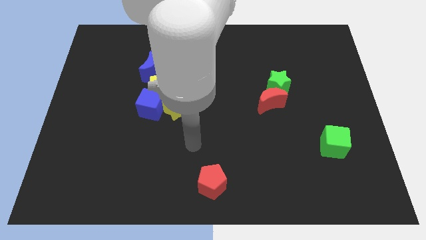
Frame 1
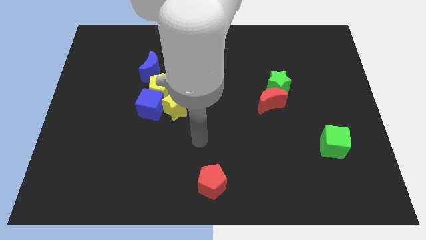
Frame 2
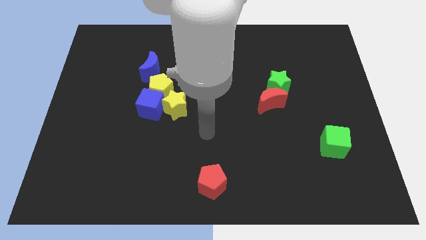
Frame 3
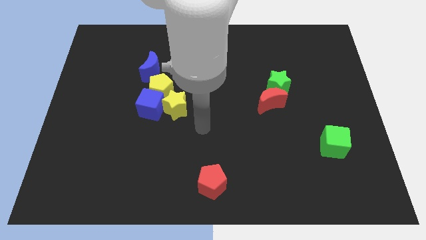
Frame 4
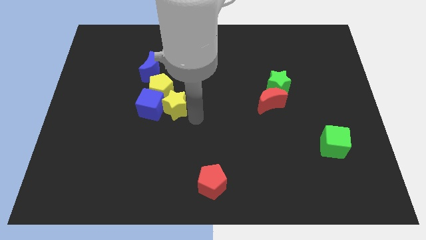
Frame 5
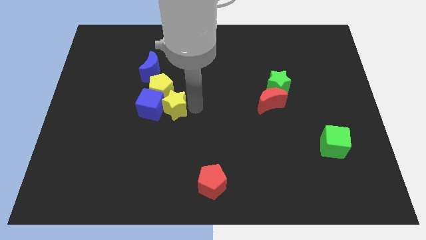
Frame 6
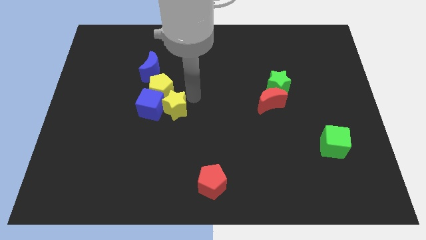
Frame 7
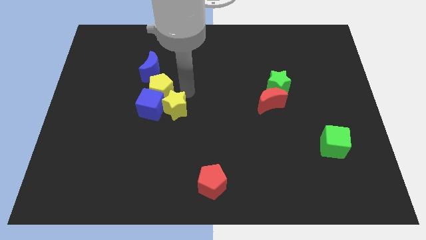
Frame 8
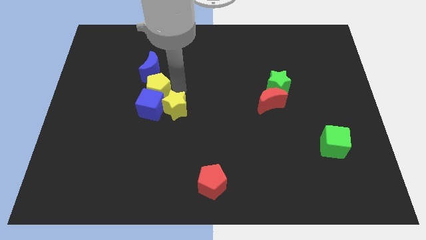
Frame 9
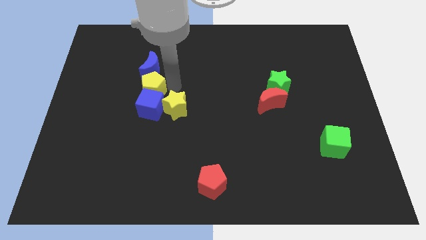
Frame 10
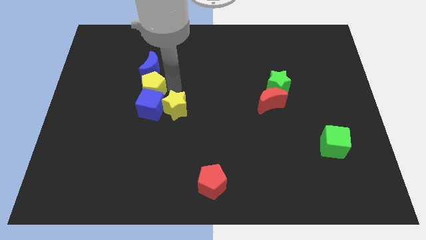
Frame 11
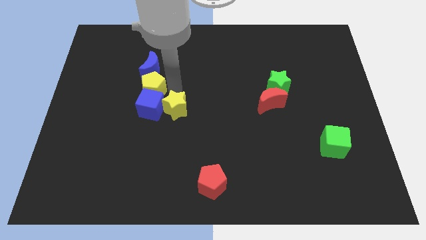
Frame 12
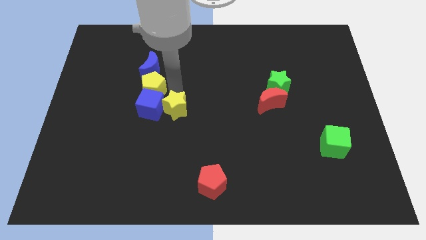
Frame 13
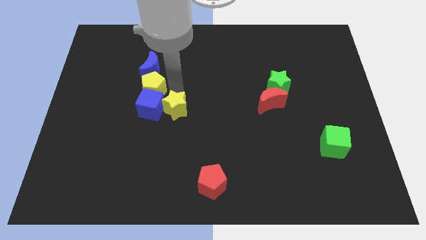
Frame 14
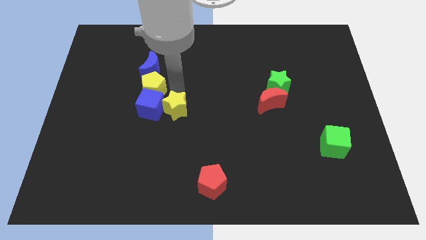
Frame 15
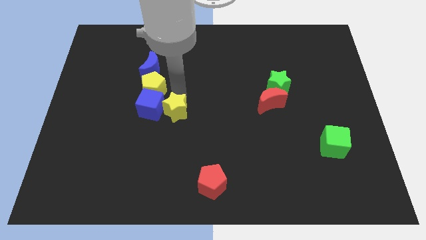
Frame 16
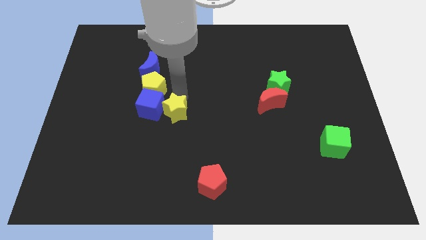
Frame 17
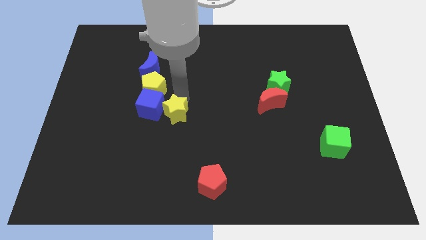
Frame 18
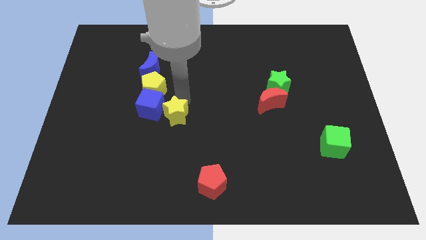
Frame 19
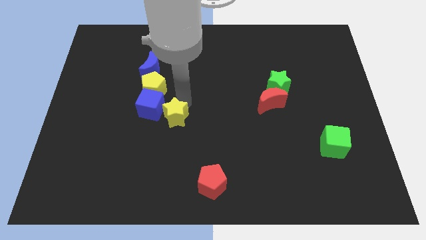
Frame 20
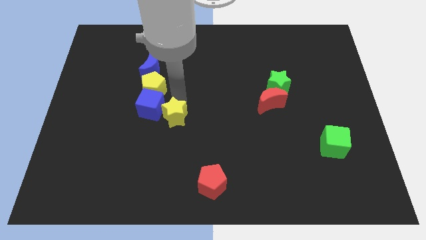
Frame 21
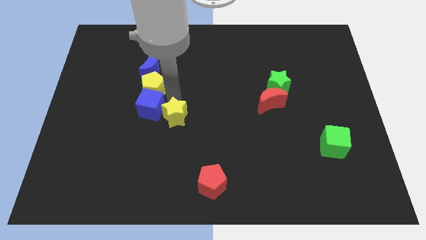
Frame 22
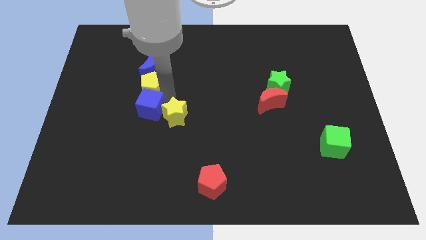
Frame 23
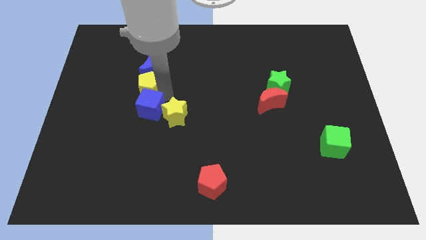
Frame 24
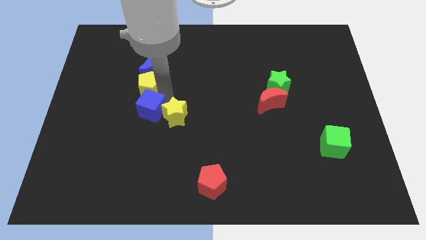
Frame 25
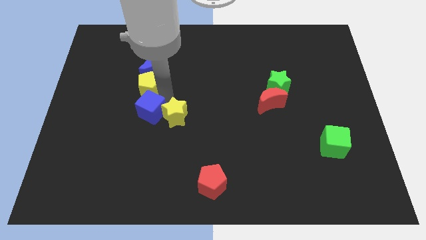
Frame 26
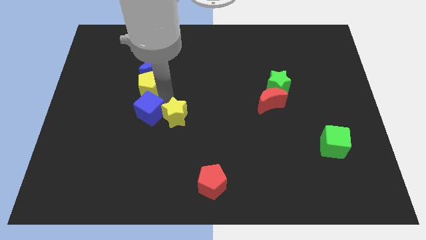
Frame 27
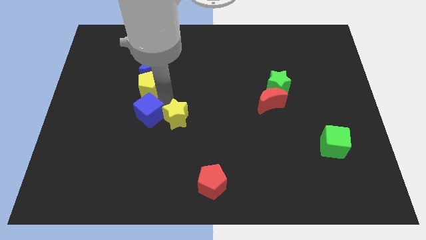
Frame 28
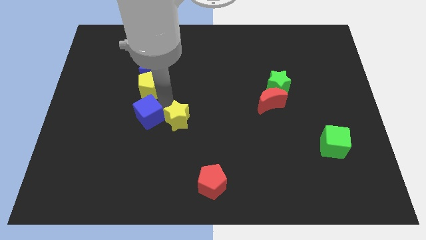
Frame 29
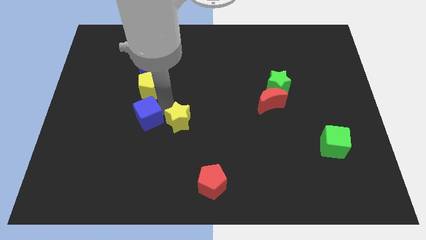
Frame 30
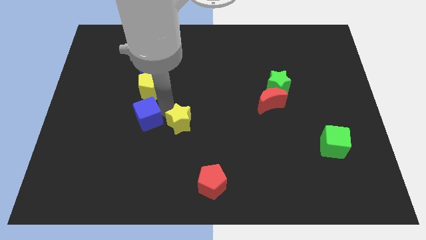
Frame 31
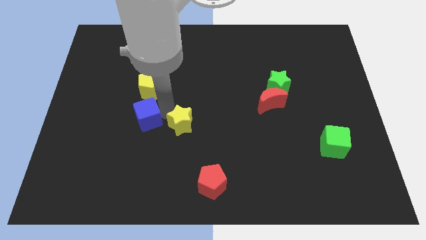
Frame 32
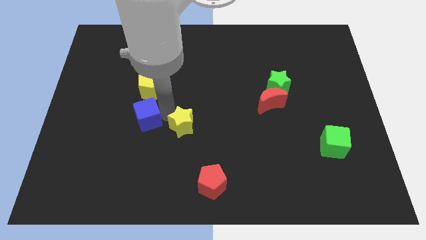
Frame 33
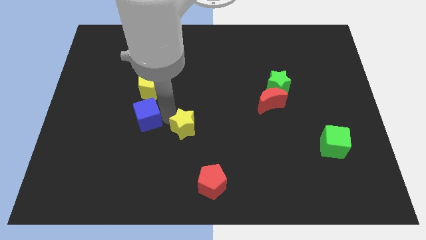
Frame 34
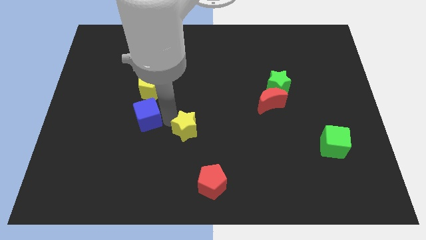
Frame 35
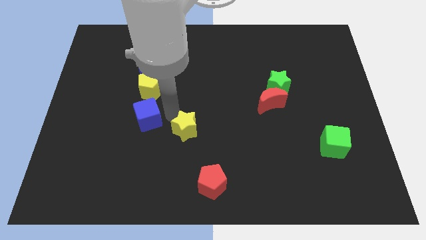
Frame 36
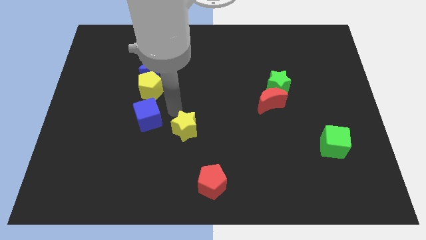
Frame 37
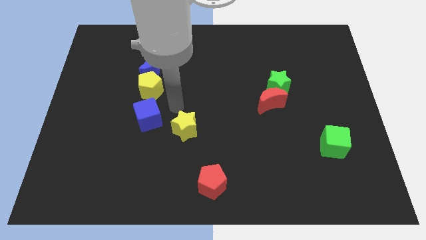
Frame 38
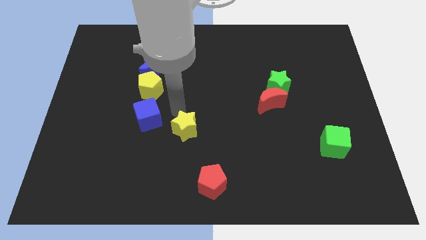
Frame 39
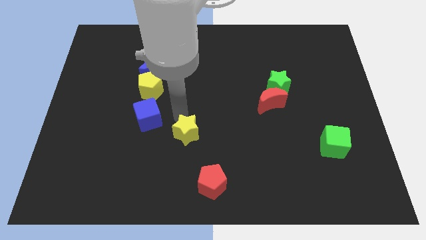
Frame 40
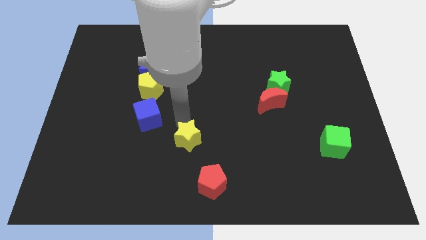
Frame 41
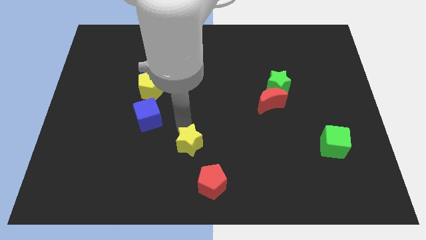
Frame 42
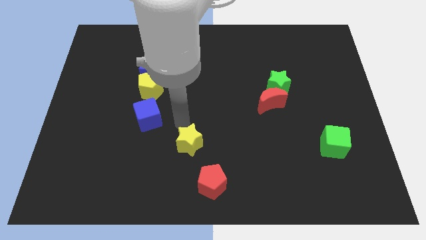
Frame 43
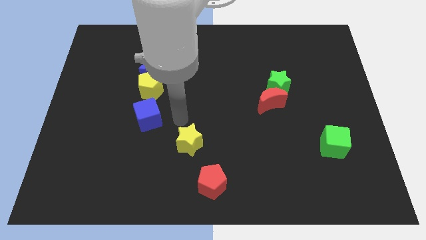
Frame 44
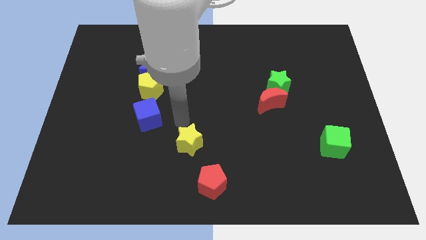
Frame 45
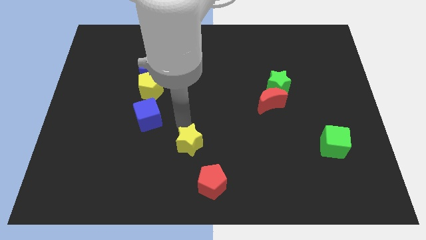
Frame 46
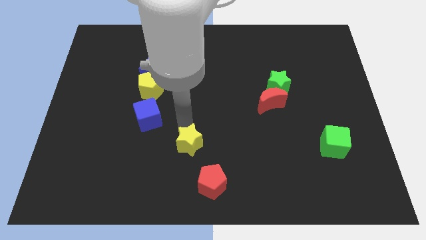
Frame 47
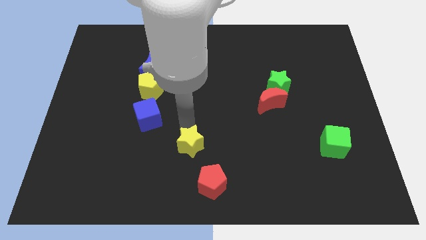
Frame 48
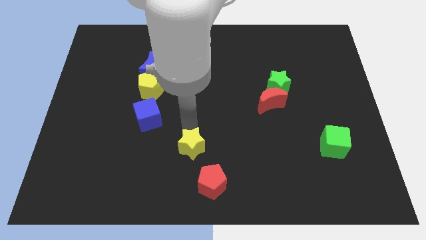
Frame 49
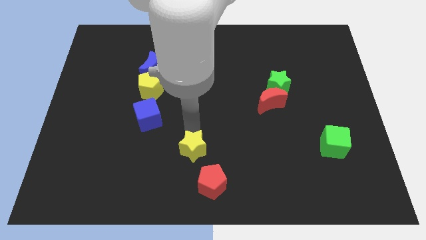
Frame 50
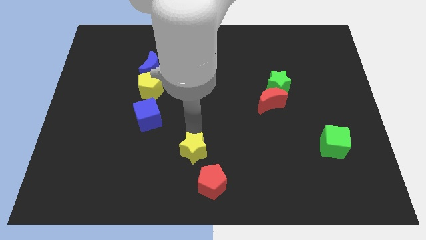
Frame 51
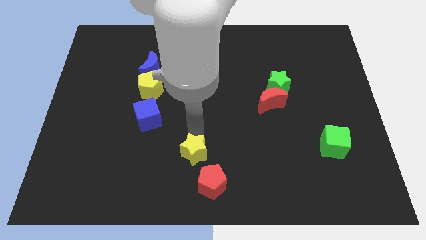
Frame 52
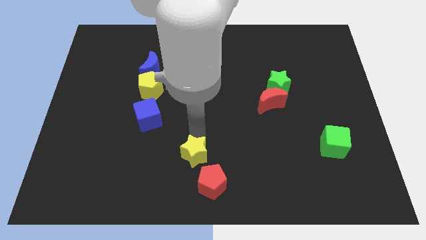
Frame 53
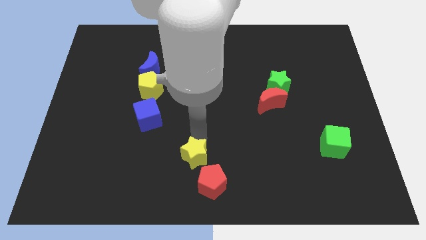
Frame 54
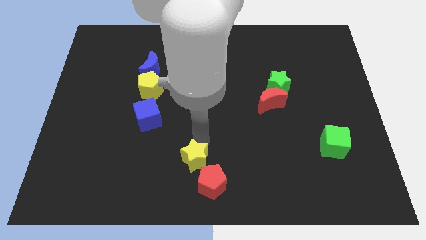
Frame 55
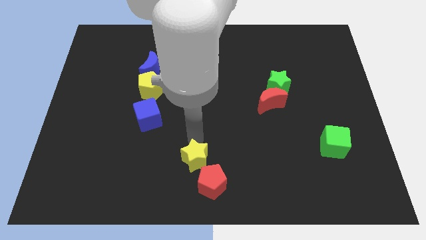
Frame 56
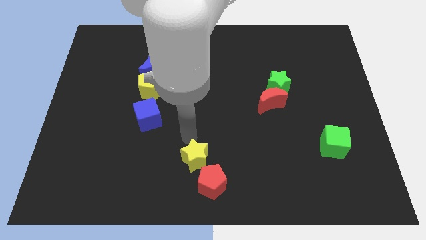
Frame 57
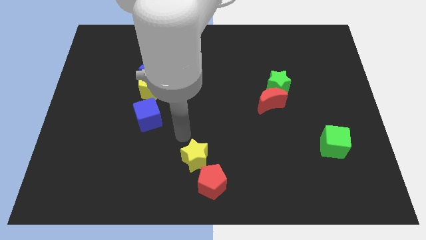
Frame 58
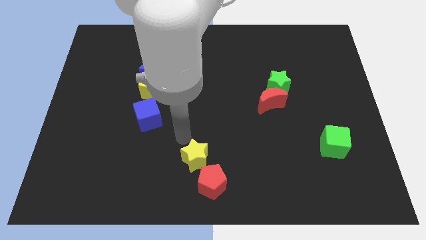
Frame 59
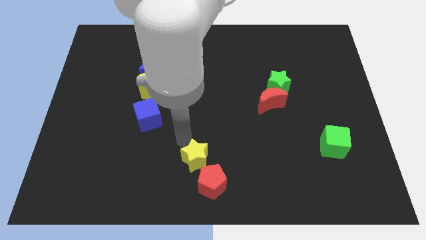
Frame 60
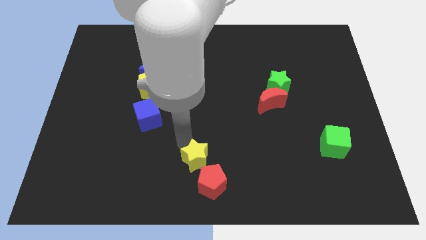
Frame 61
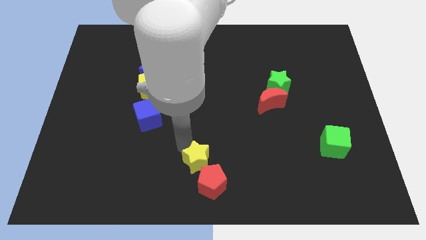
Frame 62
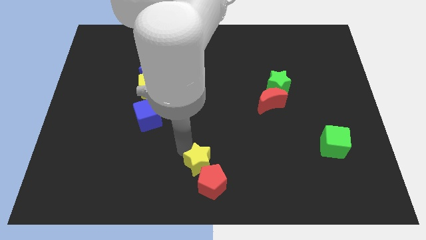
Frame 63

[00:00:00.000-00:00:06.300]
move the yellow star close to the red pentagon
